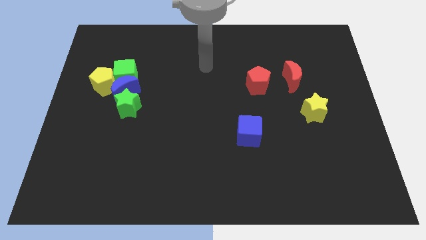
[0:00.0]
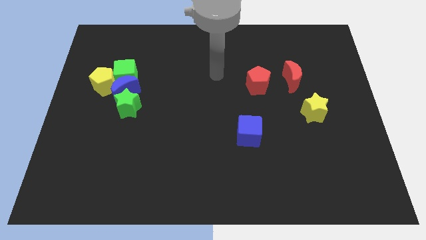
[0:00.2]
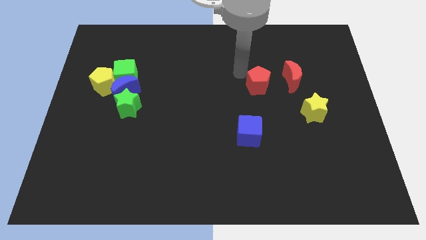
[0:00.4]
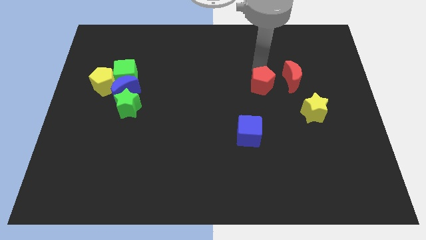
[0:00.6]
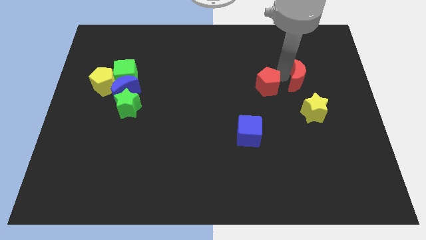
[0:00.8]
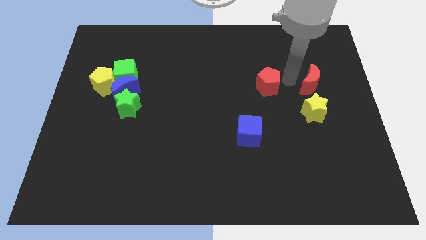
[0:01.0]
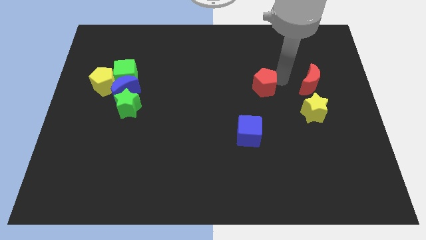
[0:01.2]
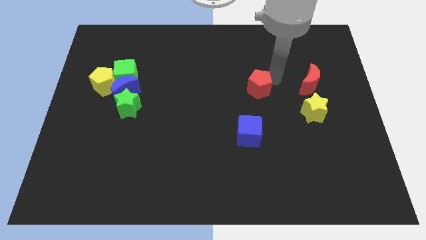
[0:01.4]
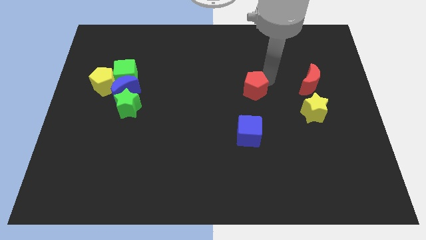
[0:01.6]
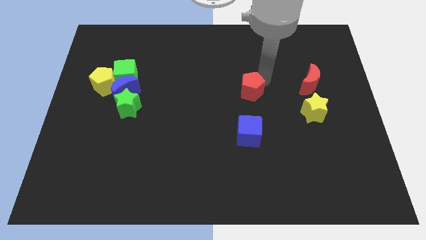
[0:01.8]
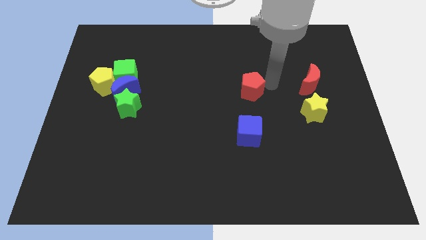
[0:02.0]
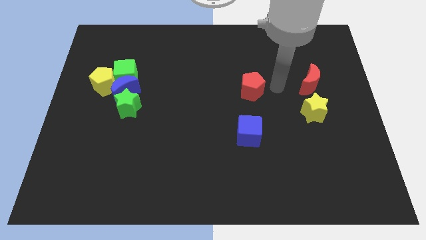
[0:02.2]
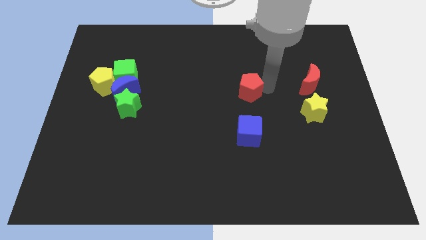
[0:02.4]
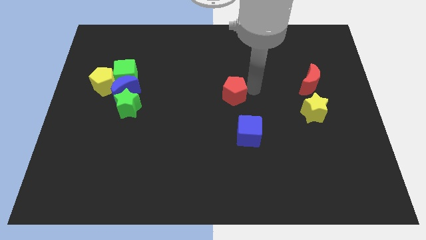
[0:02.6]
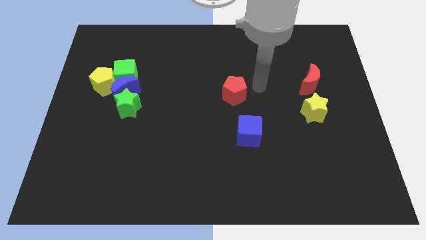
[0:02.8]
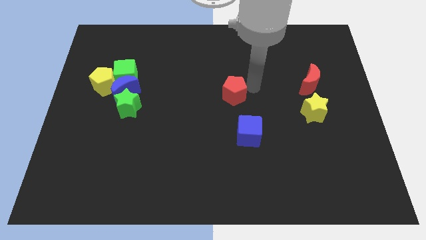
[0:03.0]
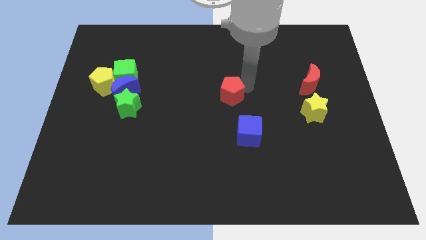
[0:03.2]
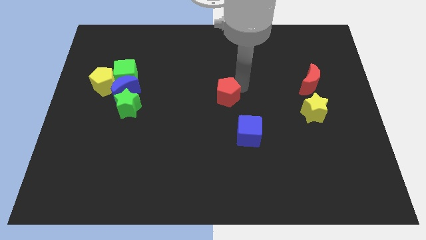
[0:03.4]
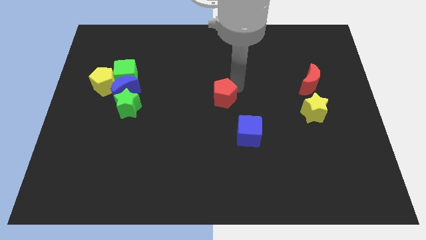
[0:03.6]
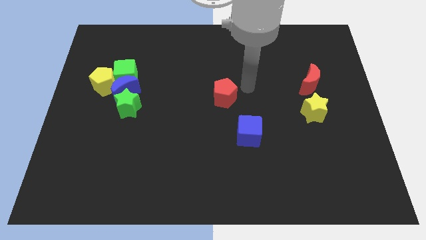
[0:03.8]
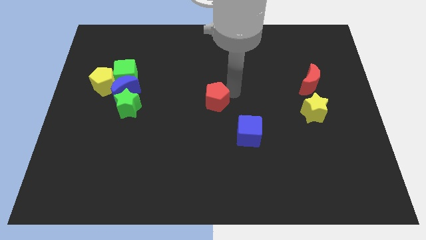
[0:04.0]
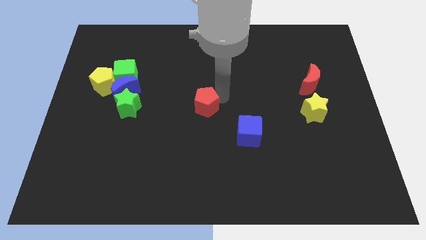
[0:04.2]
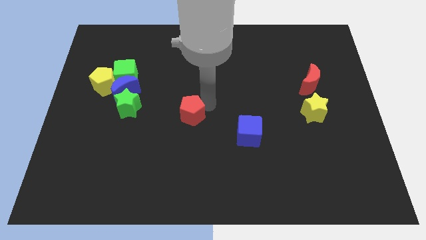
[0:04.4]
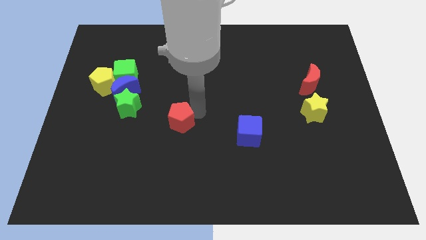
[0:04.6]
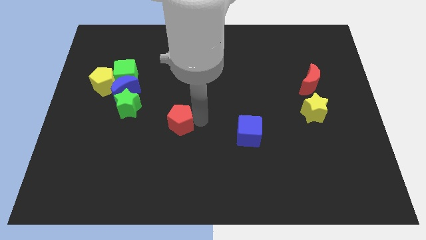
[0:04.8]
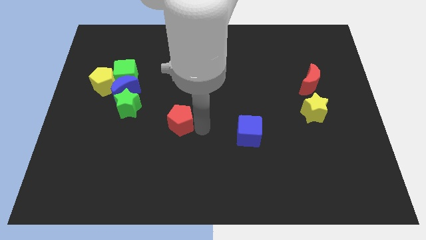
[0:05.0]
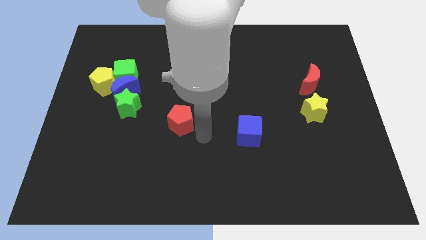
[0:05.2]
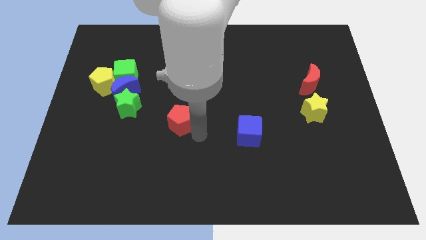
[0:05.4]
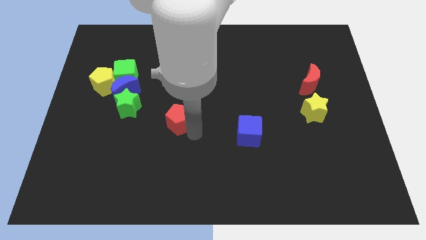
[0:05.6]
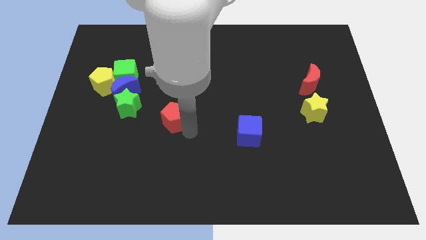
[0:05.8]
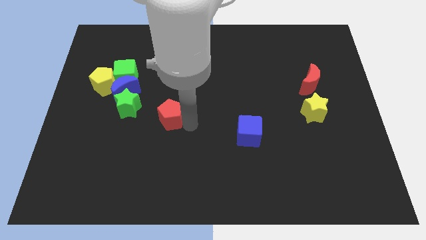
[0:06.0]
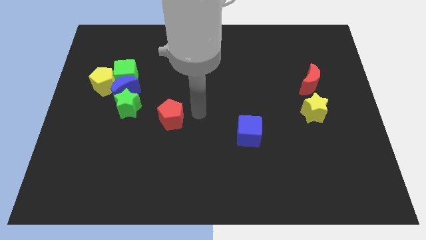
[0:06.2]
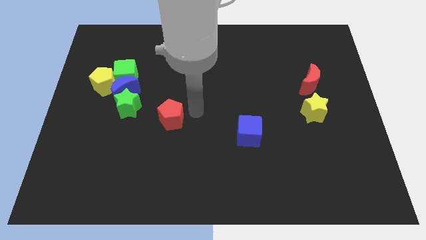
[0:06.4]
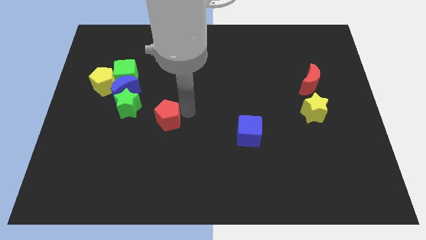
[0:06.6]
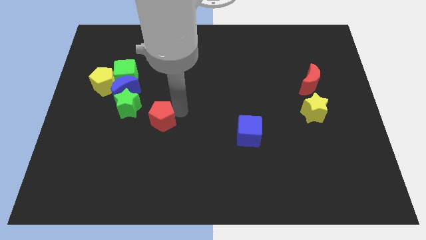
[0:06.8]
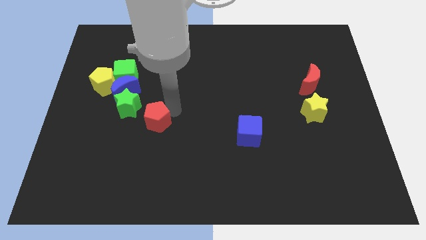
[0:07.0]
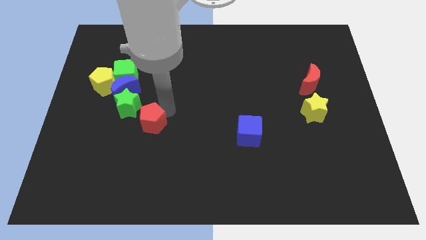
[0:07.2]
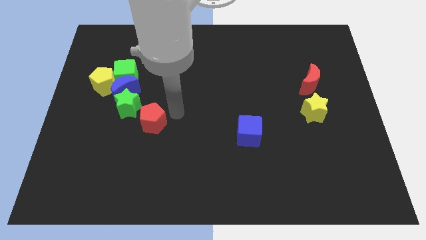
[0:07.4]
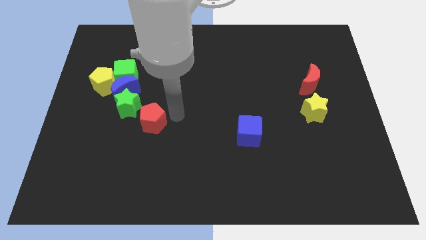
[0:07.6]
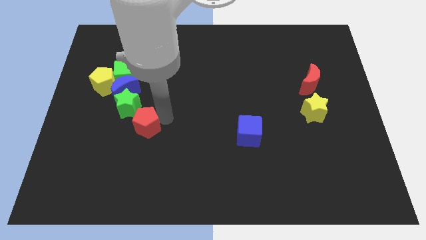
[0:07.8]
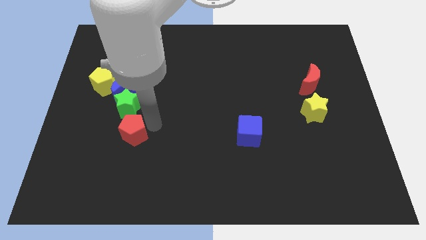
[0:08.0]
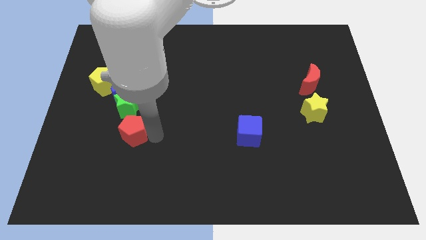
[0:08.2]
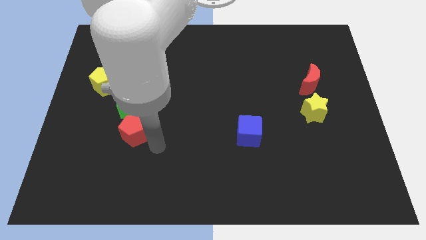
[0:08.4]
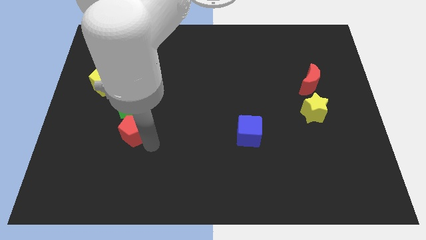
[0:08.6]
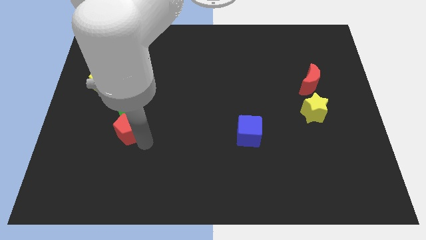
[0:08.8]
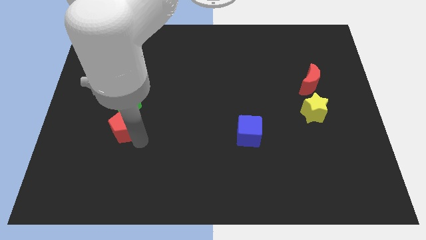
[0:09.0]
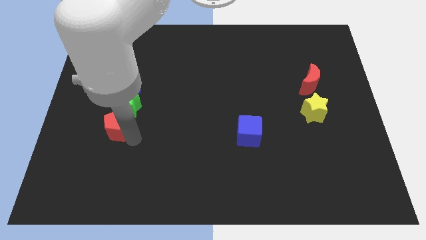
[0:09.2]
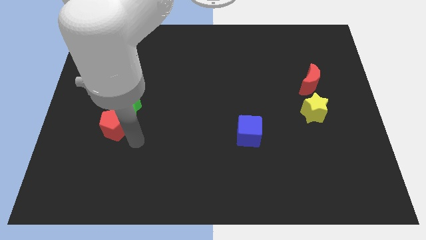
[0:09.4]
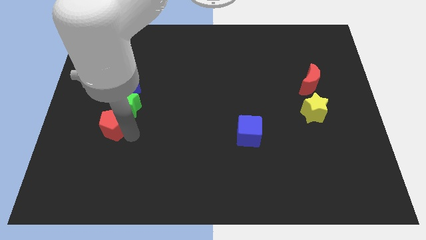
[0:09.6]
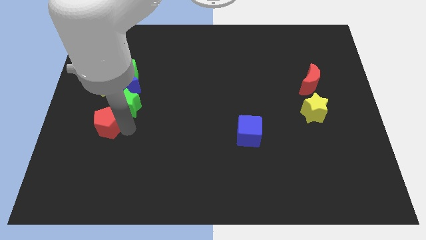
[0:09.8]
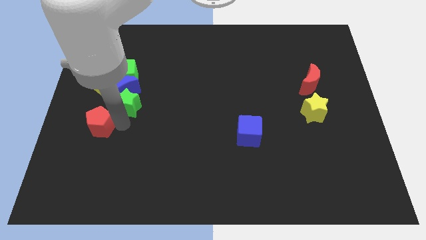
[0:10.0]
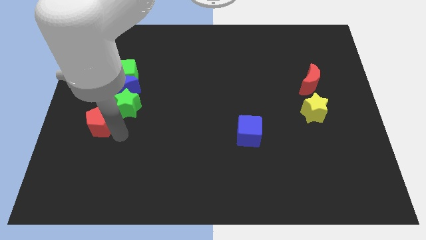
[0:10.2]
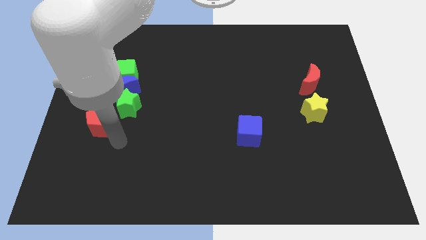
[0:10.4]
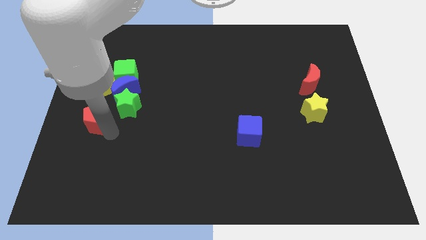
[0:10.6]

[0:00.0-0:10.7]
slide the red pentagon to the left side

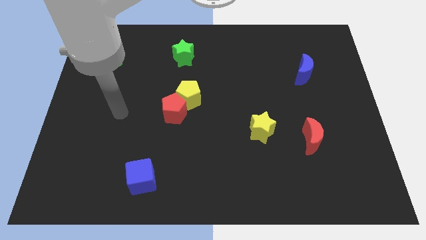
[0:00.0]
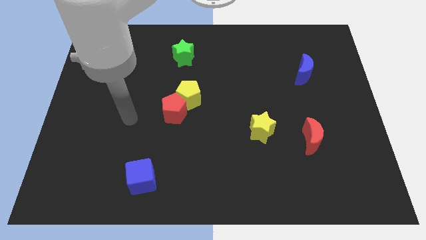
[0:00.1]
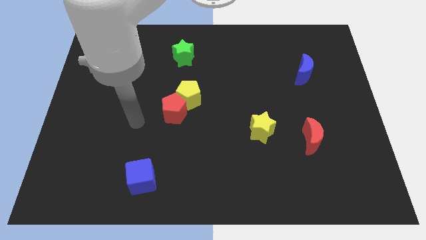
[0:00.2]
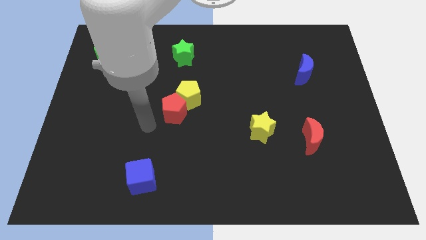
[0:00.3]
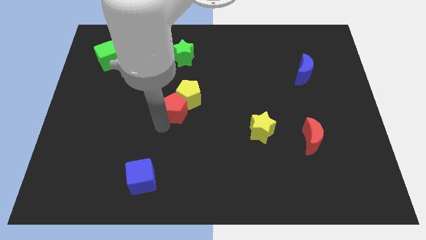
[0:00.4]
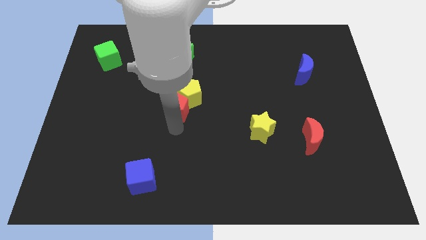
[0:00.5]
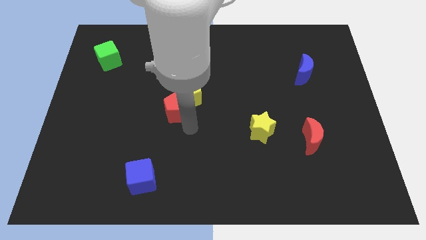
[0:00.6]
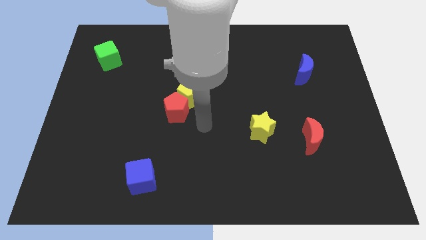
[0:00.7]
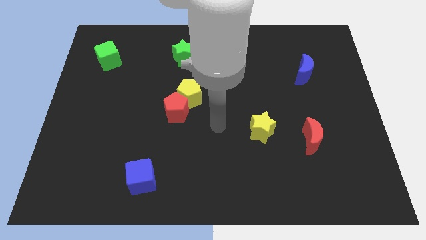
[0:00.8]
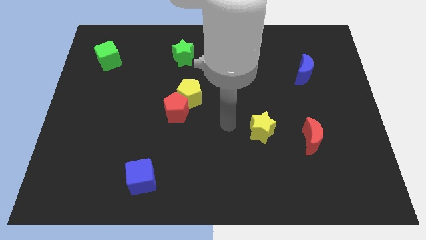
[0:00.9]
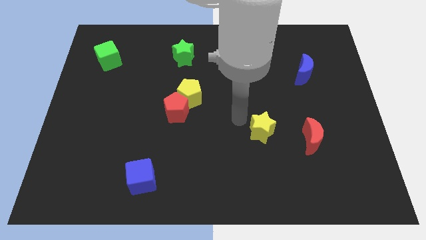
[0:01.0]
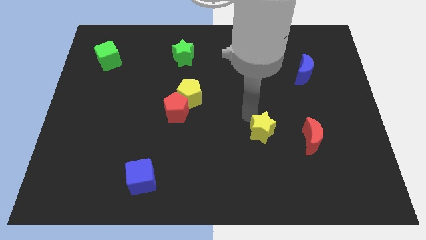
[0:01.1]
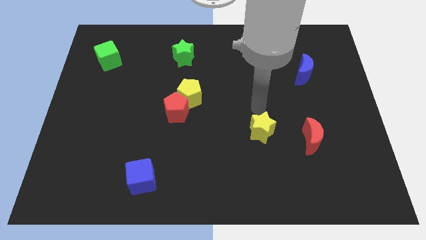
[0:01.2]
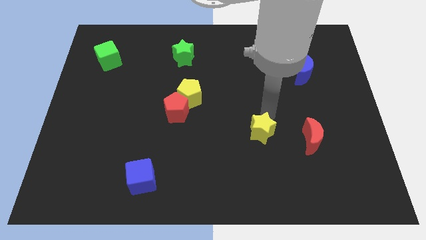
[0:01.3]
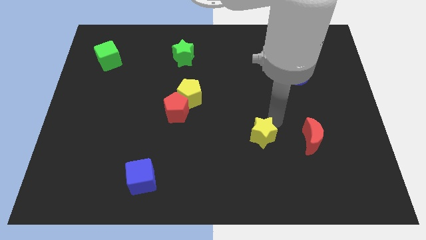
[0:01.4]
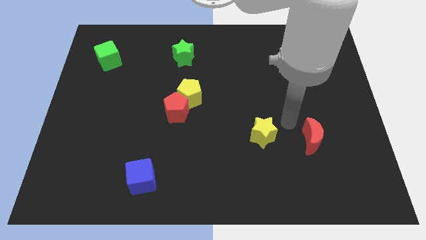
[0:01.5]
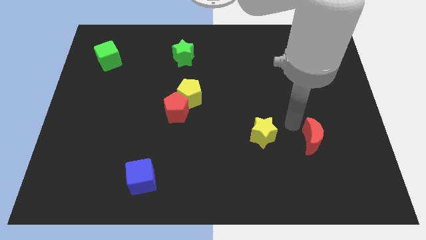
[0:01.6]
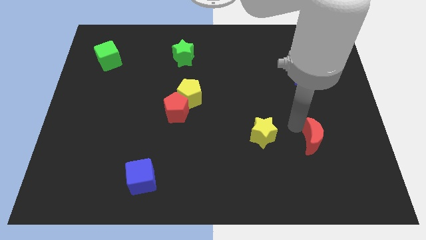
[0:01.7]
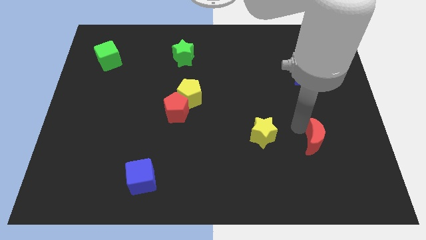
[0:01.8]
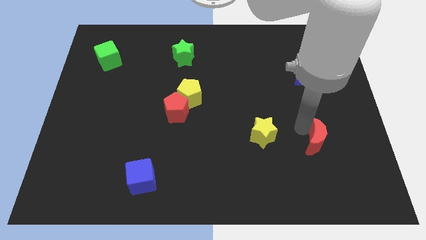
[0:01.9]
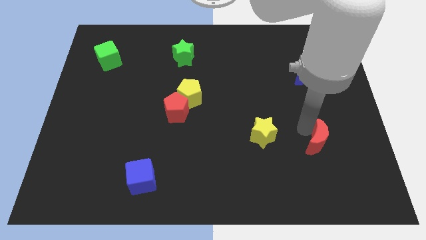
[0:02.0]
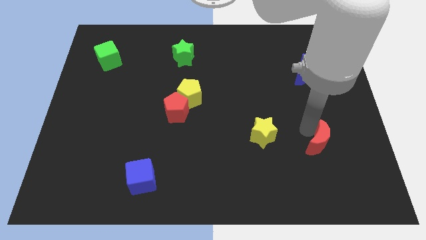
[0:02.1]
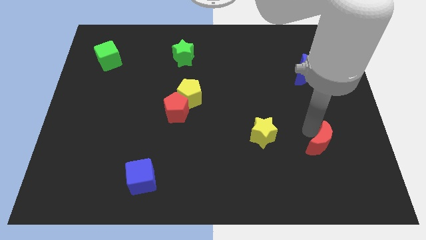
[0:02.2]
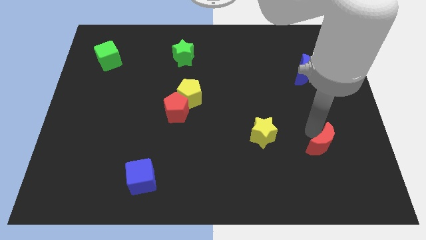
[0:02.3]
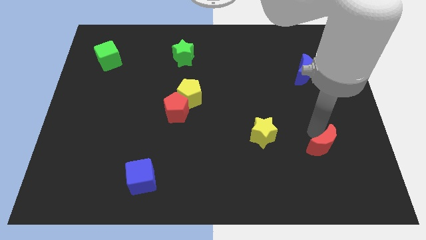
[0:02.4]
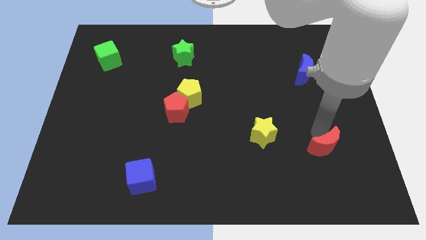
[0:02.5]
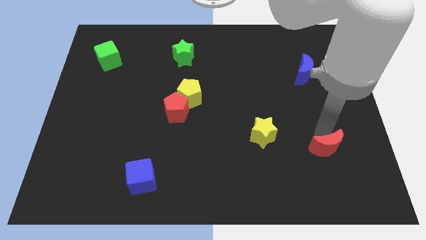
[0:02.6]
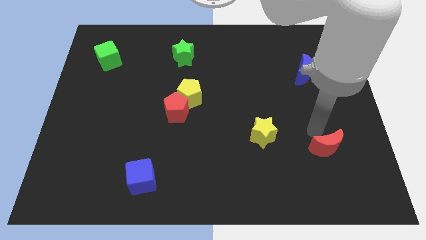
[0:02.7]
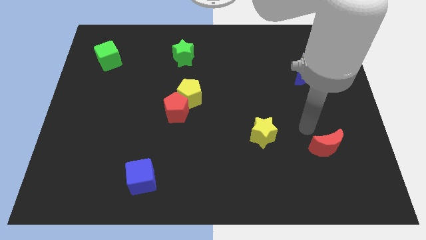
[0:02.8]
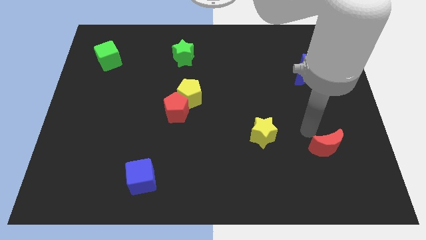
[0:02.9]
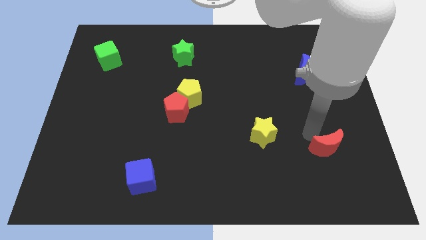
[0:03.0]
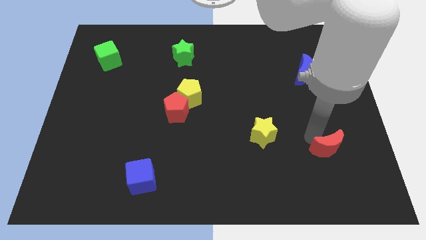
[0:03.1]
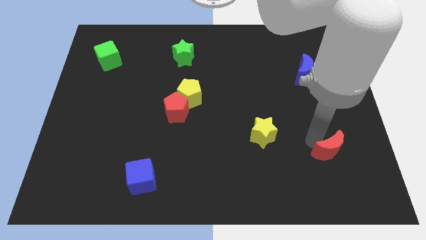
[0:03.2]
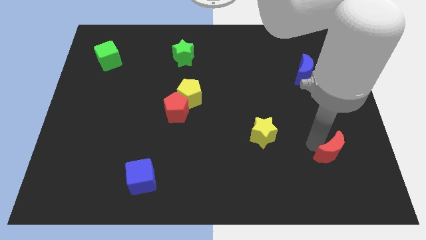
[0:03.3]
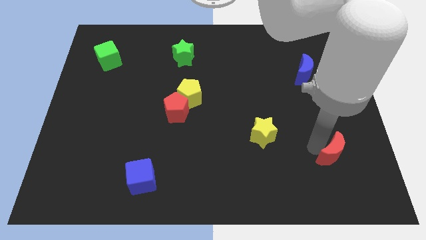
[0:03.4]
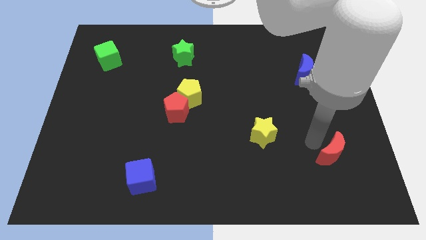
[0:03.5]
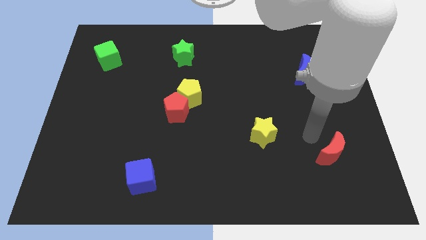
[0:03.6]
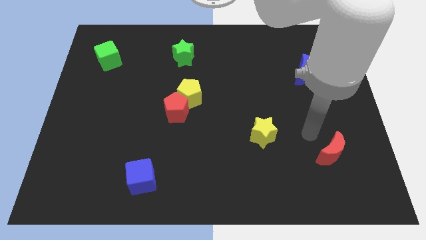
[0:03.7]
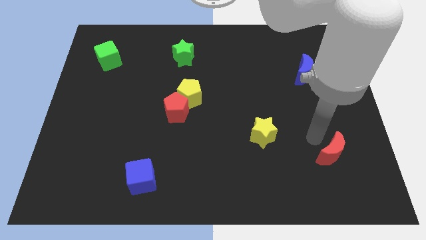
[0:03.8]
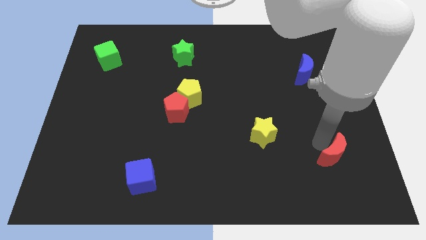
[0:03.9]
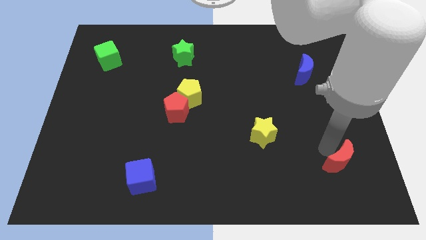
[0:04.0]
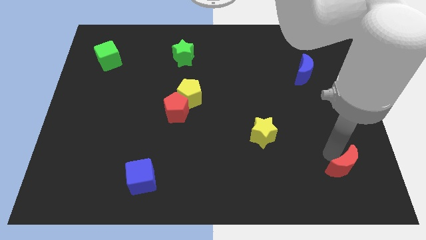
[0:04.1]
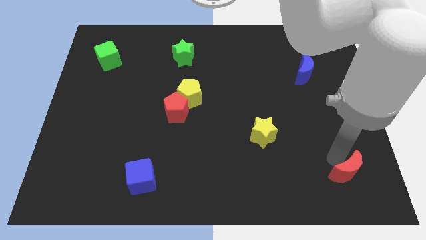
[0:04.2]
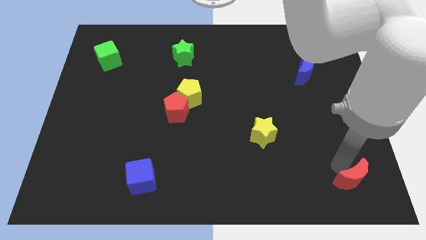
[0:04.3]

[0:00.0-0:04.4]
move the red moon to the lower right corner
